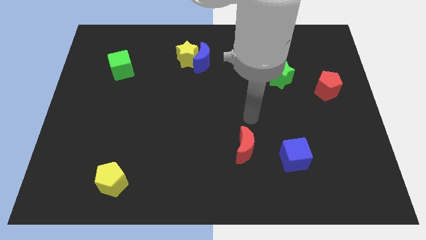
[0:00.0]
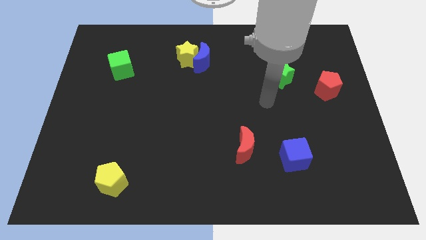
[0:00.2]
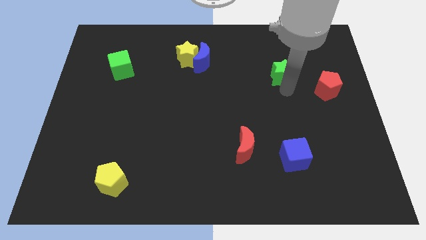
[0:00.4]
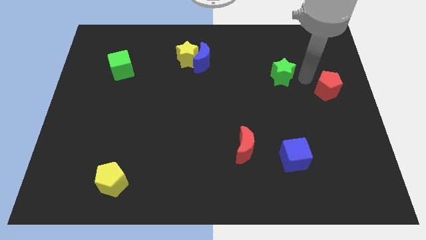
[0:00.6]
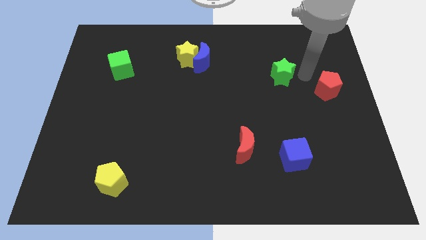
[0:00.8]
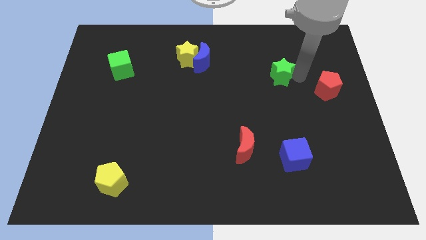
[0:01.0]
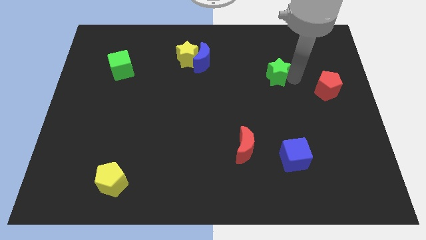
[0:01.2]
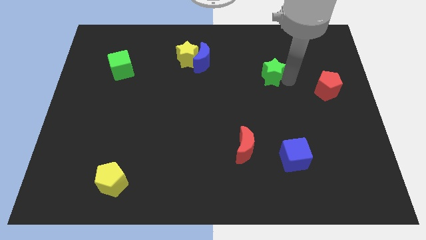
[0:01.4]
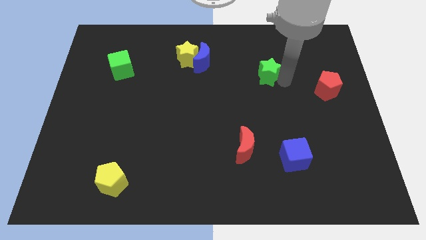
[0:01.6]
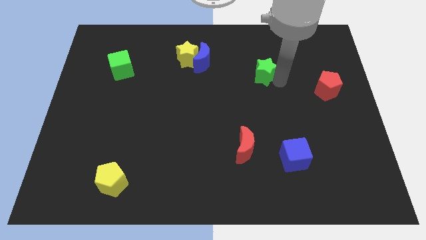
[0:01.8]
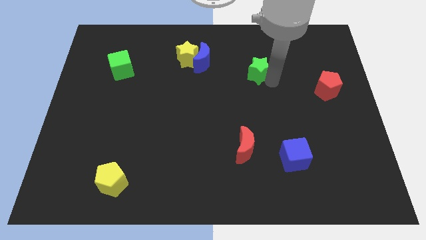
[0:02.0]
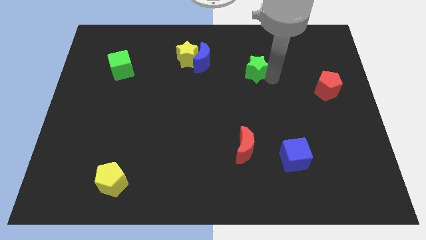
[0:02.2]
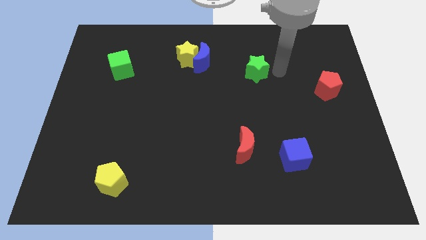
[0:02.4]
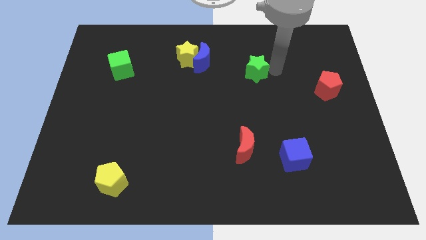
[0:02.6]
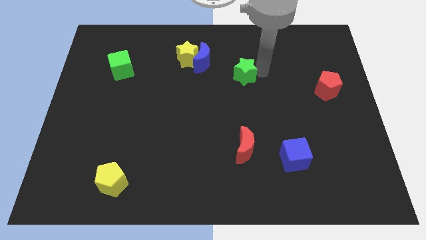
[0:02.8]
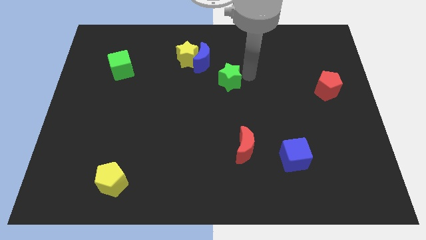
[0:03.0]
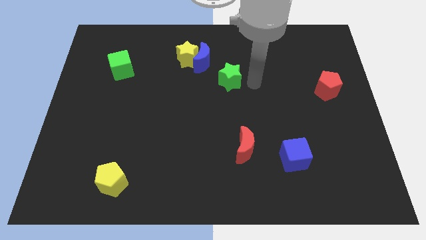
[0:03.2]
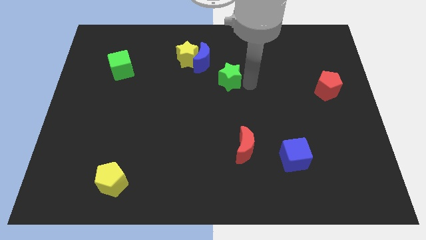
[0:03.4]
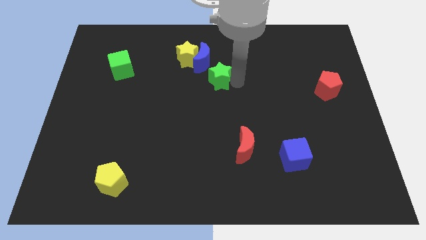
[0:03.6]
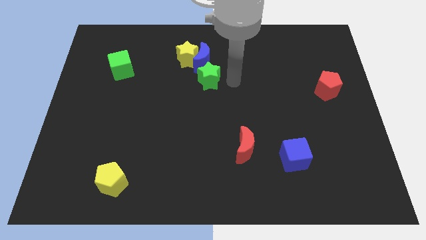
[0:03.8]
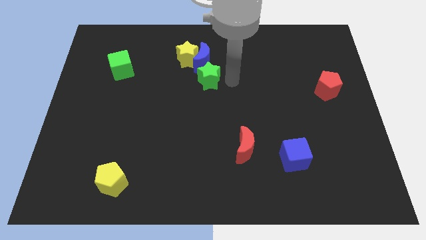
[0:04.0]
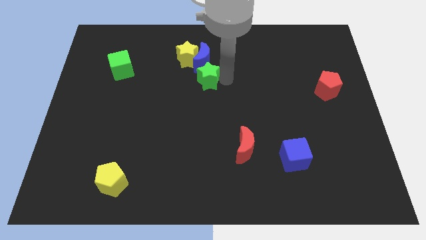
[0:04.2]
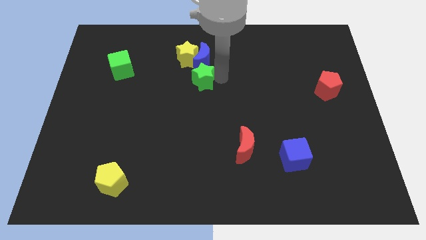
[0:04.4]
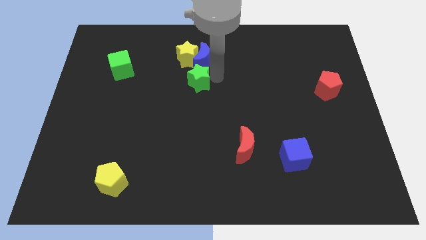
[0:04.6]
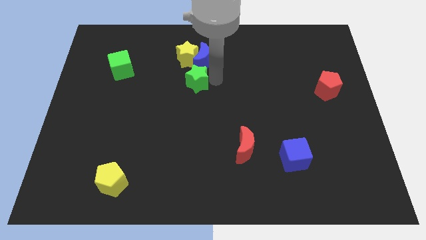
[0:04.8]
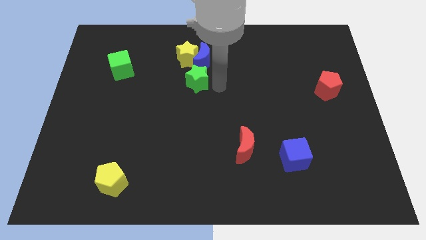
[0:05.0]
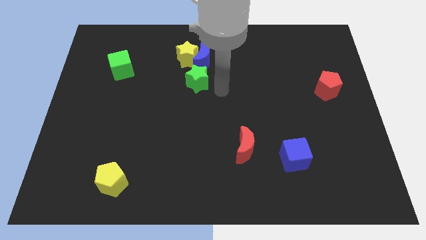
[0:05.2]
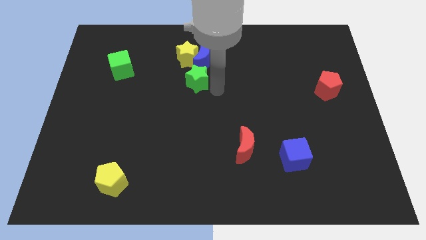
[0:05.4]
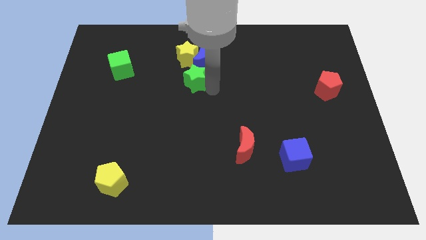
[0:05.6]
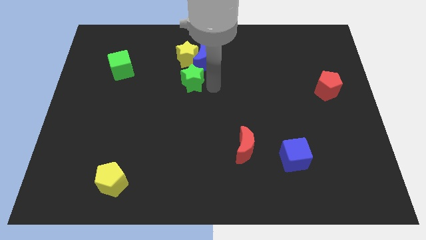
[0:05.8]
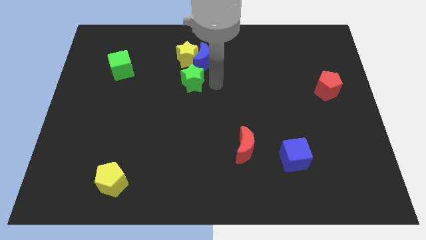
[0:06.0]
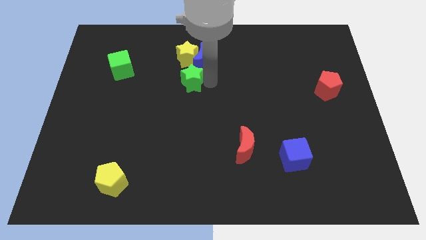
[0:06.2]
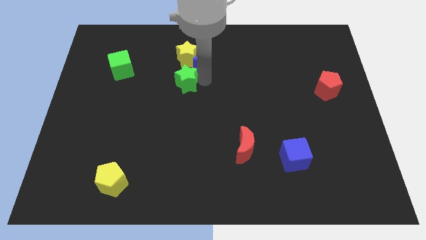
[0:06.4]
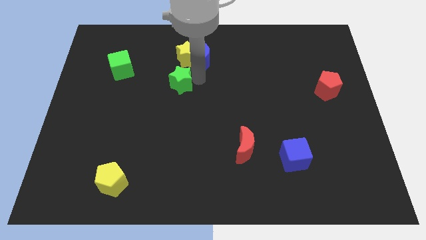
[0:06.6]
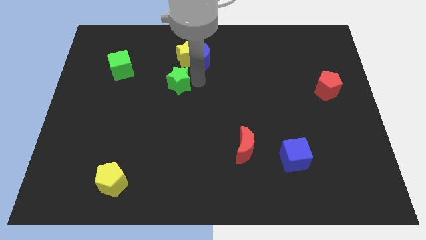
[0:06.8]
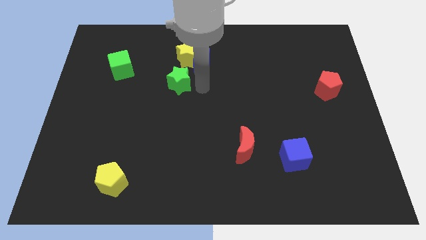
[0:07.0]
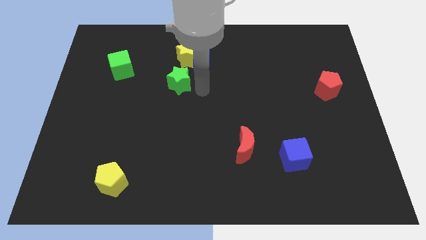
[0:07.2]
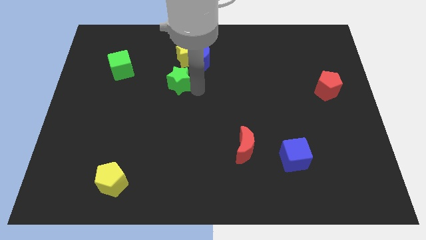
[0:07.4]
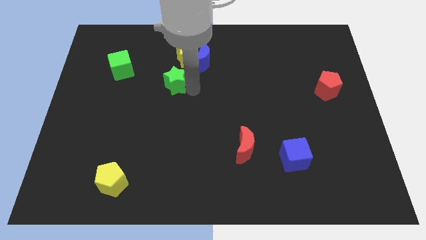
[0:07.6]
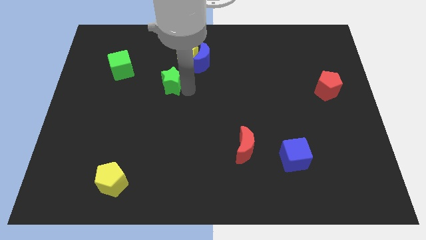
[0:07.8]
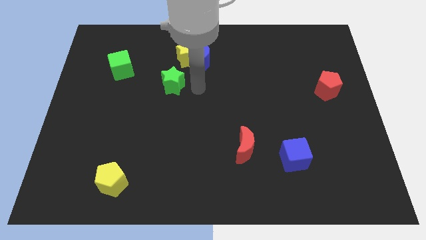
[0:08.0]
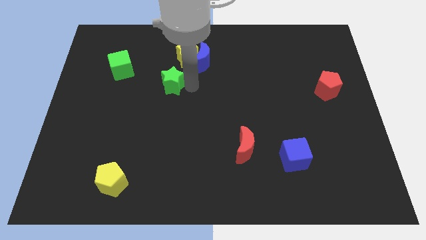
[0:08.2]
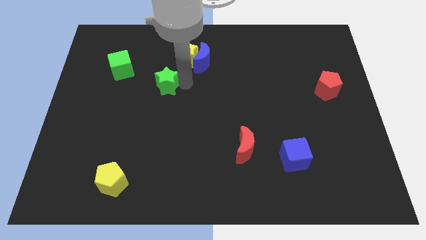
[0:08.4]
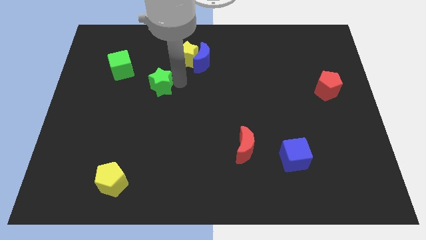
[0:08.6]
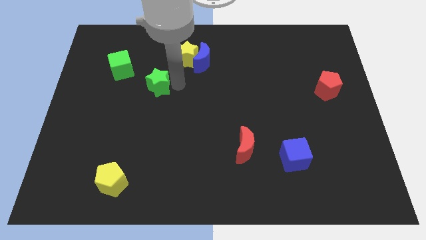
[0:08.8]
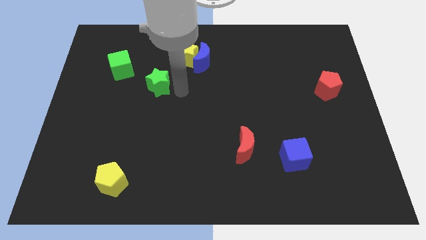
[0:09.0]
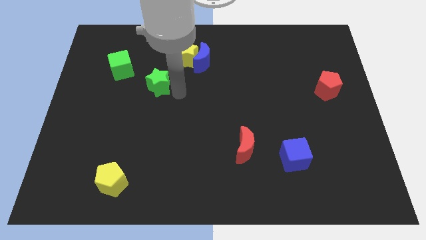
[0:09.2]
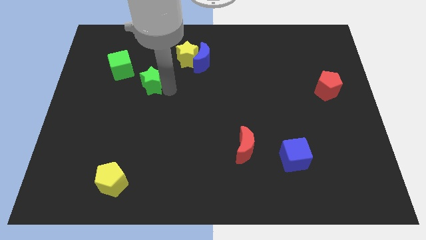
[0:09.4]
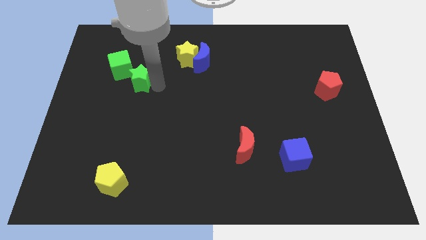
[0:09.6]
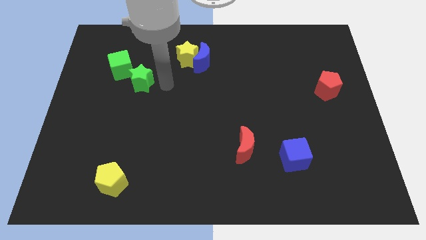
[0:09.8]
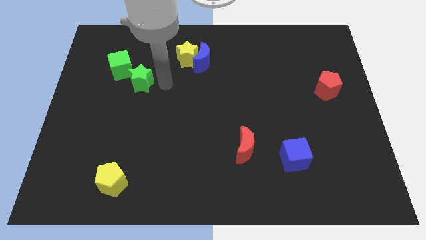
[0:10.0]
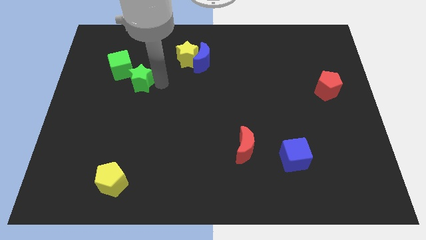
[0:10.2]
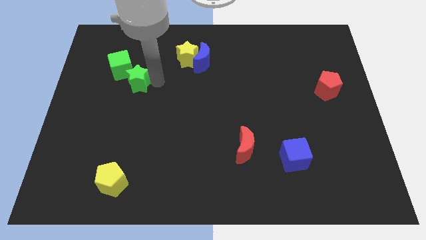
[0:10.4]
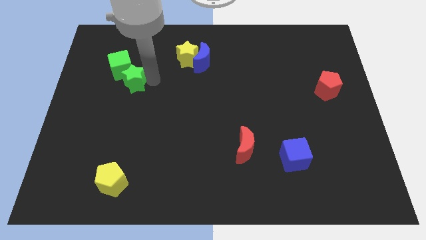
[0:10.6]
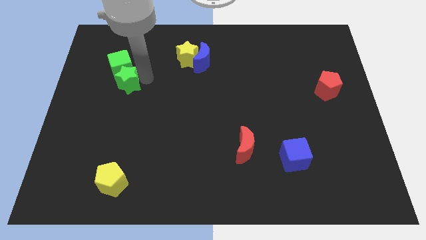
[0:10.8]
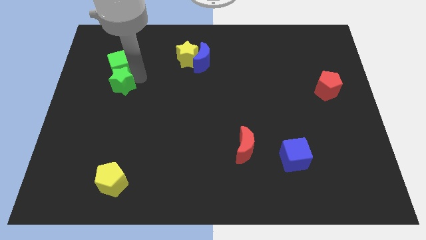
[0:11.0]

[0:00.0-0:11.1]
slide the green star to the bottom left of the green cube

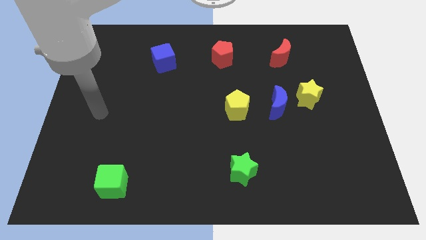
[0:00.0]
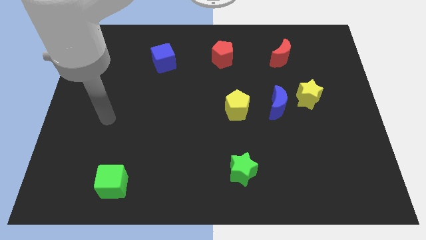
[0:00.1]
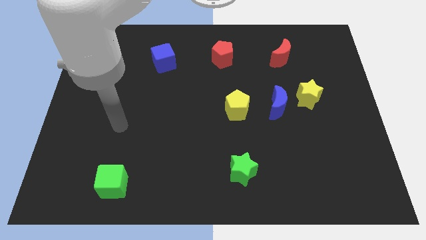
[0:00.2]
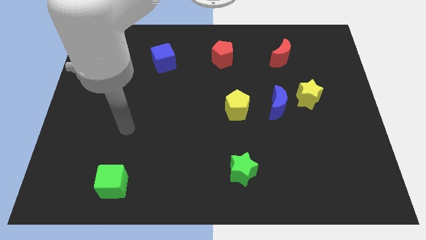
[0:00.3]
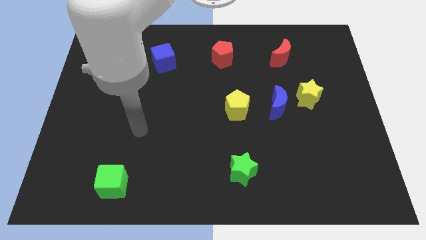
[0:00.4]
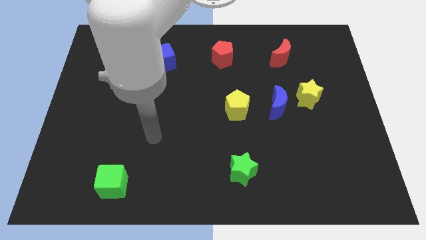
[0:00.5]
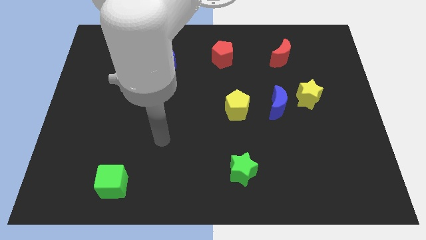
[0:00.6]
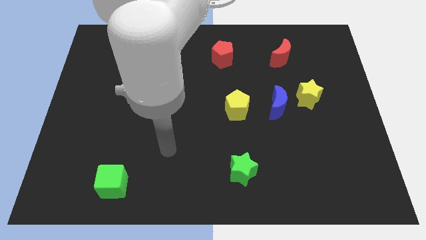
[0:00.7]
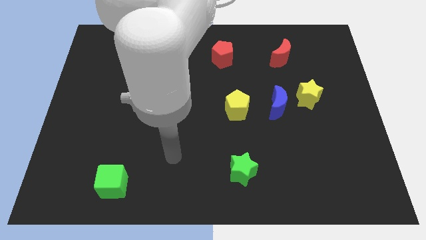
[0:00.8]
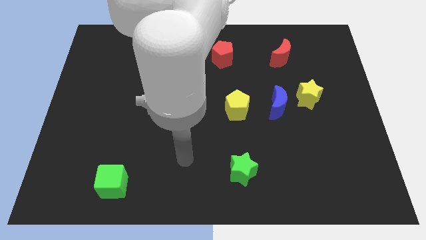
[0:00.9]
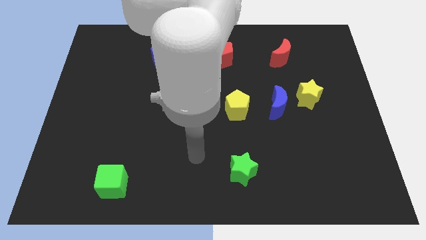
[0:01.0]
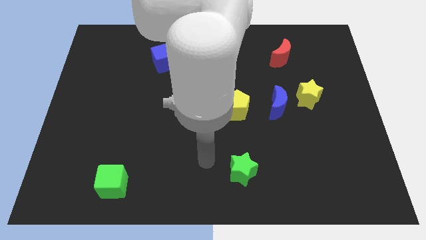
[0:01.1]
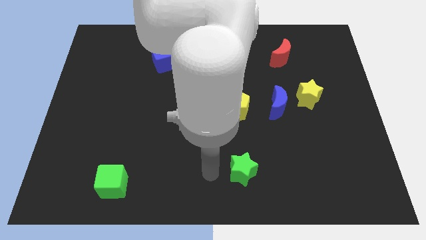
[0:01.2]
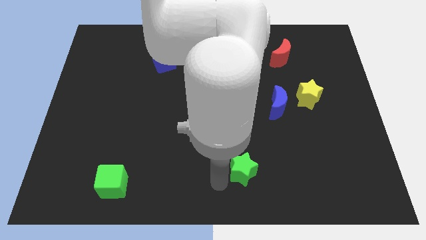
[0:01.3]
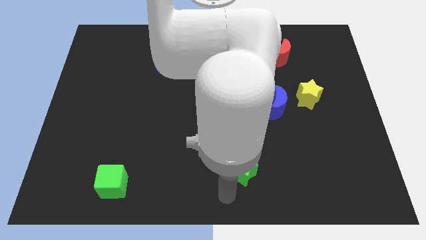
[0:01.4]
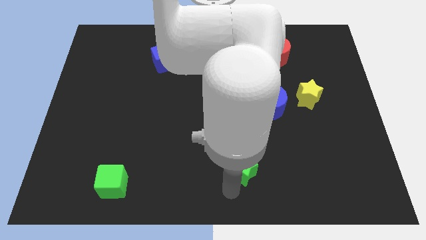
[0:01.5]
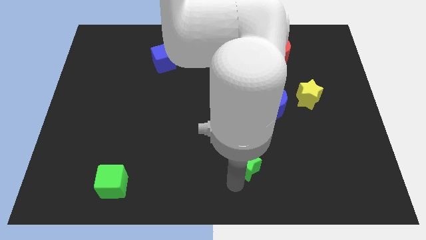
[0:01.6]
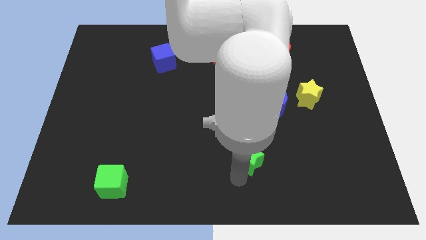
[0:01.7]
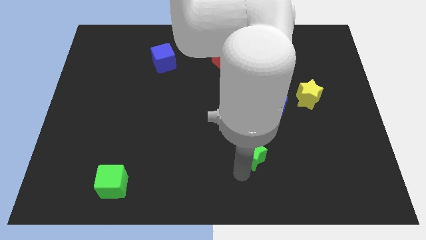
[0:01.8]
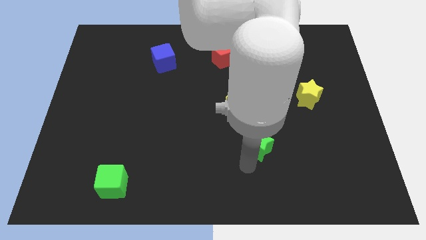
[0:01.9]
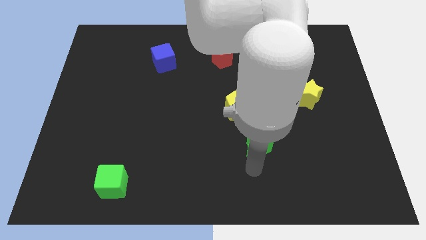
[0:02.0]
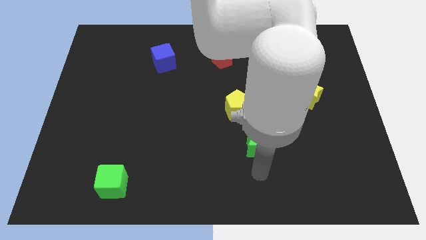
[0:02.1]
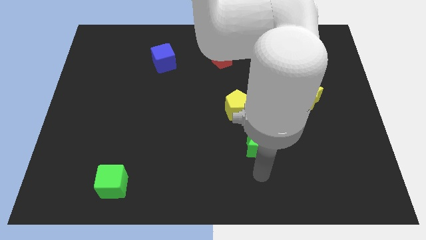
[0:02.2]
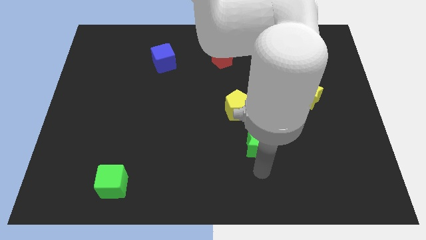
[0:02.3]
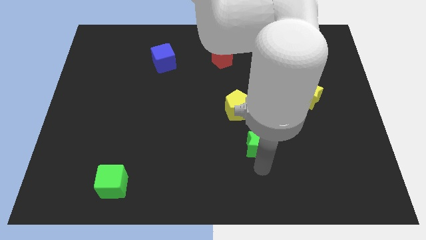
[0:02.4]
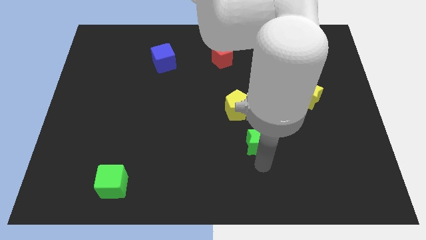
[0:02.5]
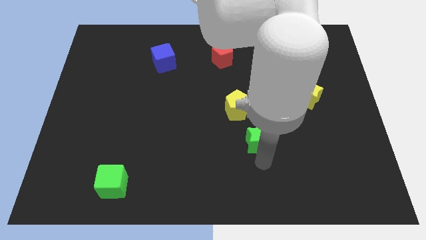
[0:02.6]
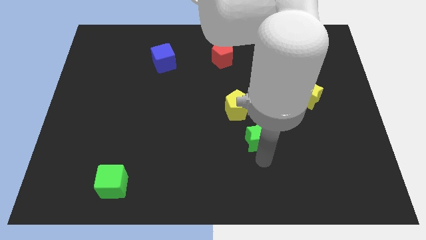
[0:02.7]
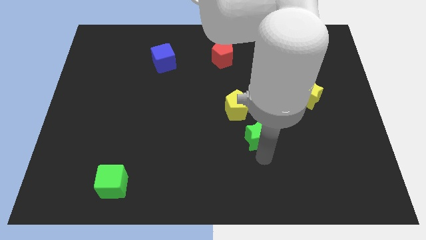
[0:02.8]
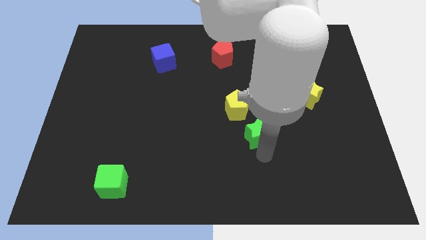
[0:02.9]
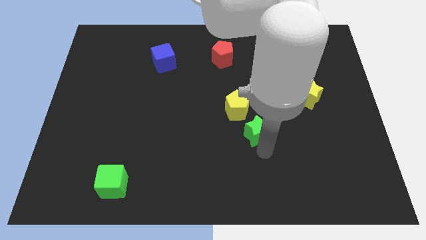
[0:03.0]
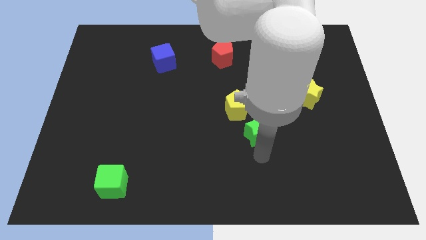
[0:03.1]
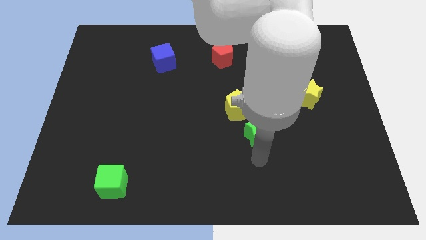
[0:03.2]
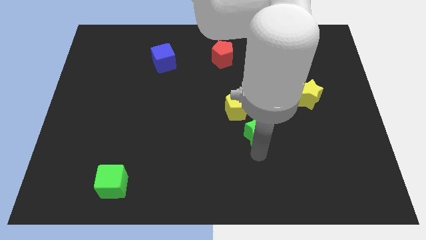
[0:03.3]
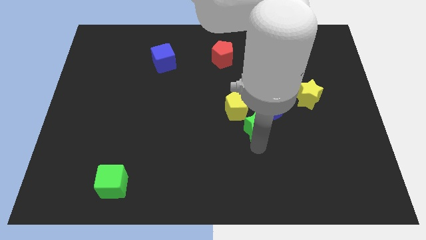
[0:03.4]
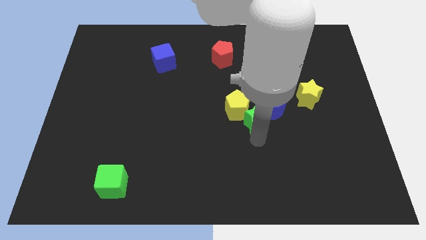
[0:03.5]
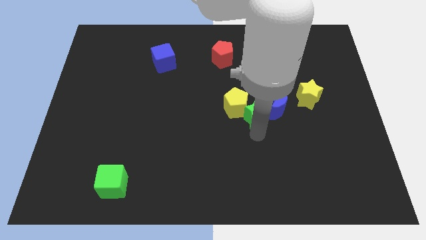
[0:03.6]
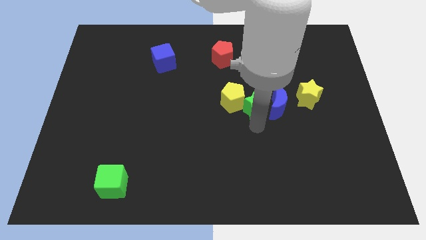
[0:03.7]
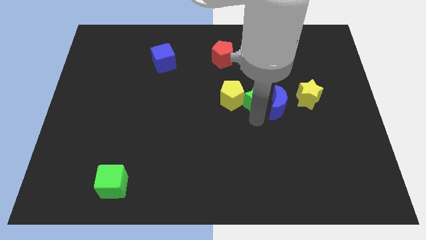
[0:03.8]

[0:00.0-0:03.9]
move the green star diagonally up and to the right of the yellow pentagon
